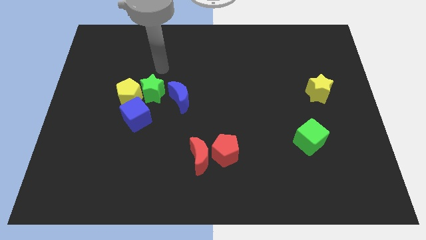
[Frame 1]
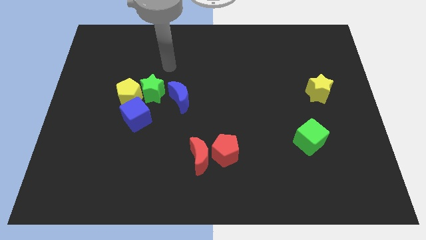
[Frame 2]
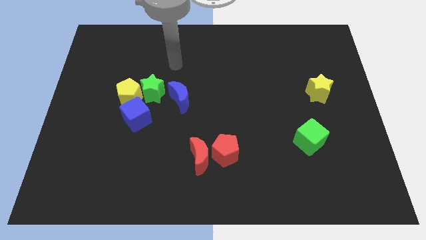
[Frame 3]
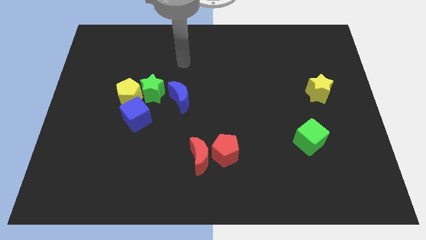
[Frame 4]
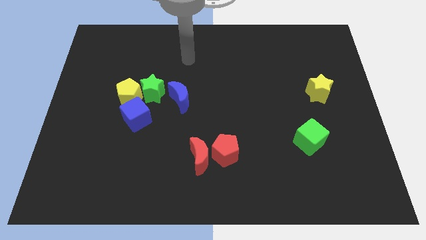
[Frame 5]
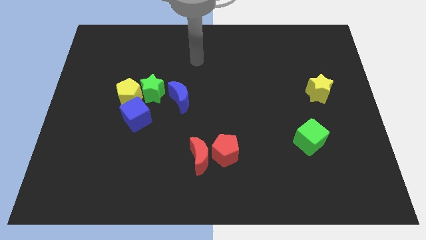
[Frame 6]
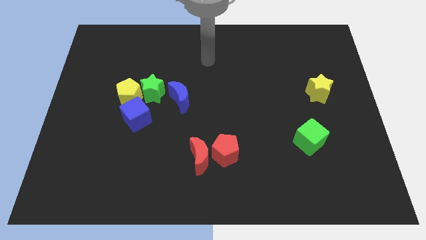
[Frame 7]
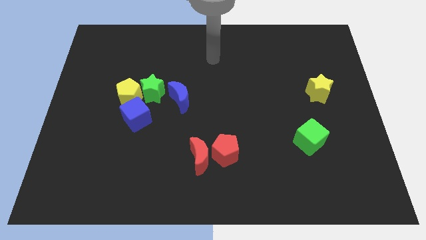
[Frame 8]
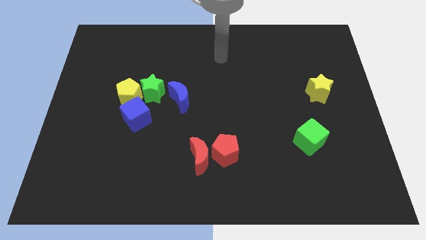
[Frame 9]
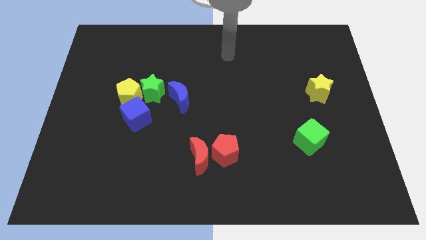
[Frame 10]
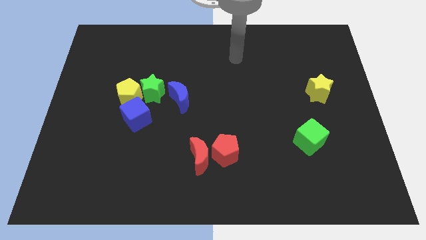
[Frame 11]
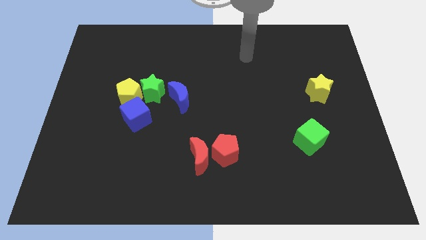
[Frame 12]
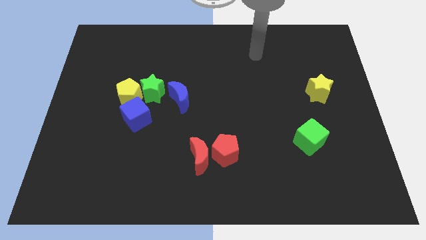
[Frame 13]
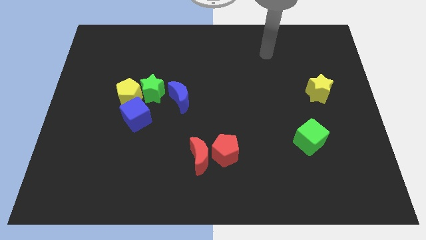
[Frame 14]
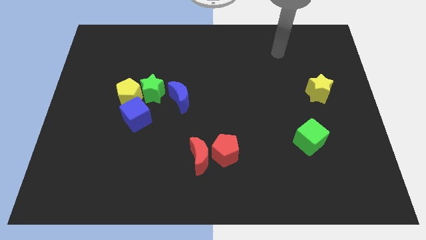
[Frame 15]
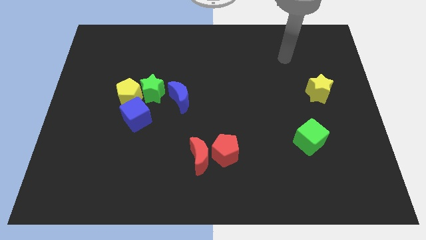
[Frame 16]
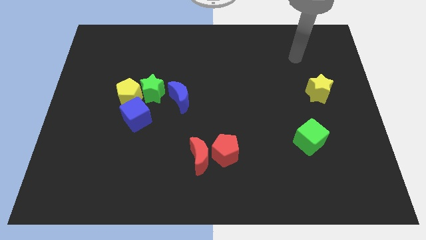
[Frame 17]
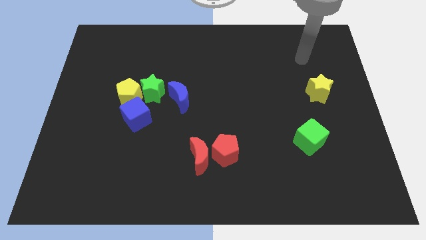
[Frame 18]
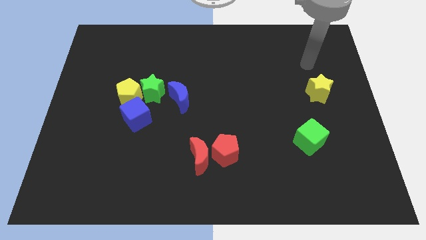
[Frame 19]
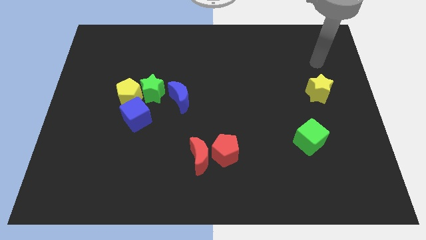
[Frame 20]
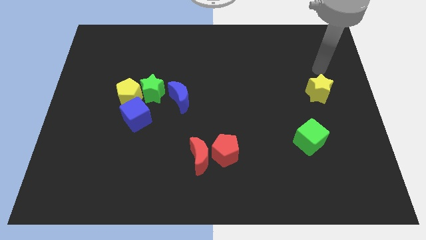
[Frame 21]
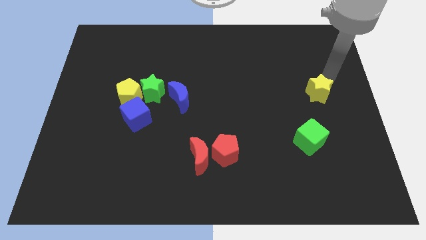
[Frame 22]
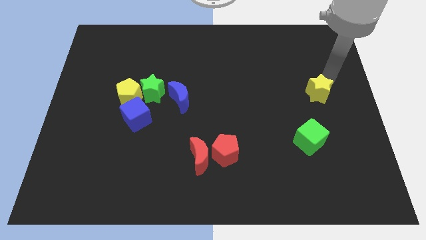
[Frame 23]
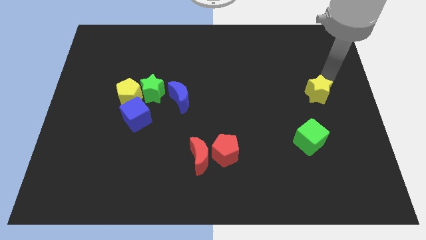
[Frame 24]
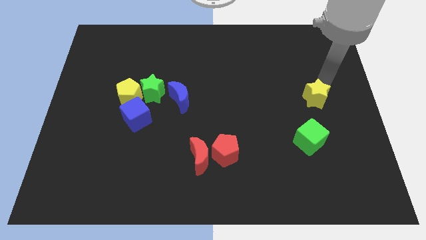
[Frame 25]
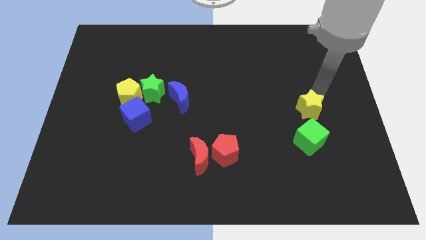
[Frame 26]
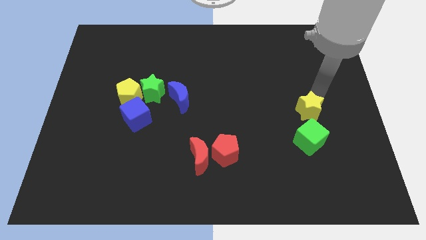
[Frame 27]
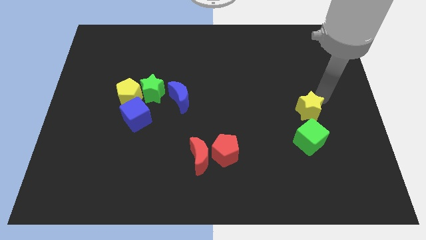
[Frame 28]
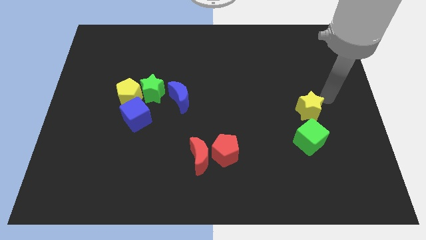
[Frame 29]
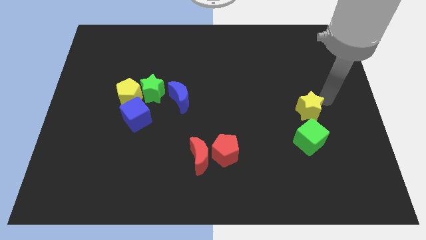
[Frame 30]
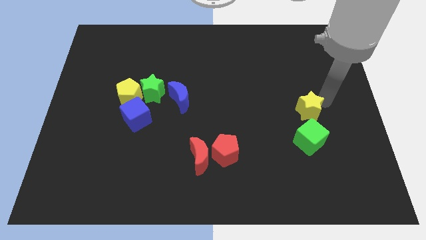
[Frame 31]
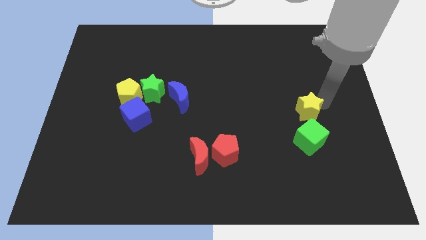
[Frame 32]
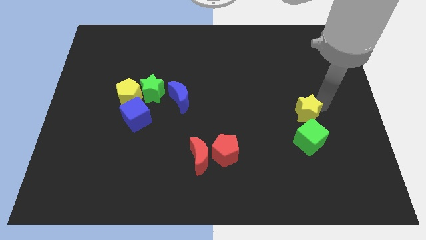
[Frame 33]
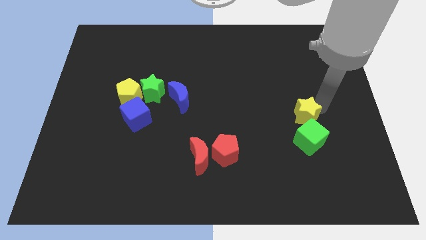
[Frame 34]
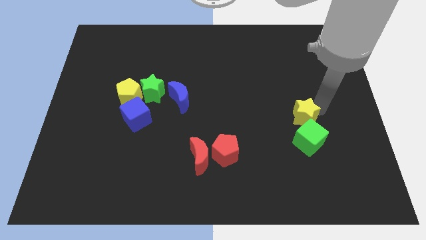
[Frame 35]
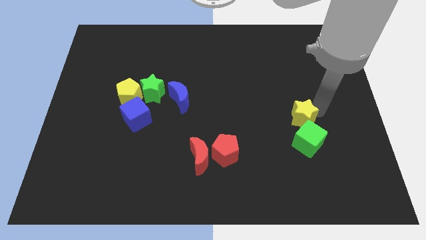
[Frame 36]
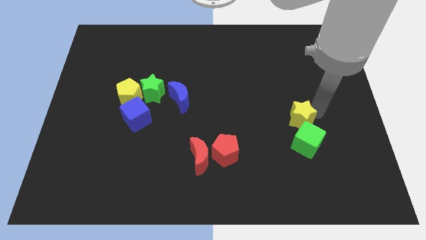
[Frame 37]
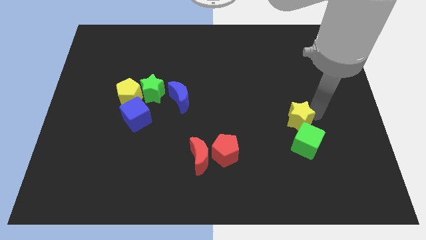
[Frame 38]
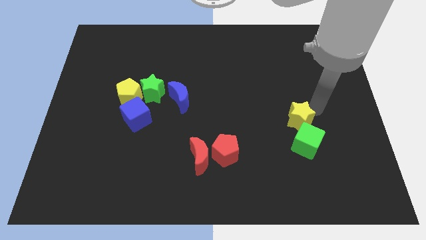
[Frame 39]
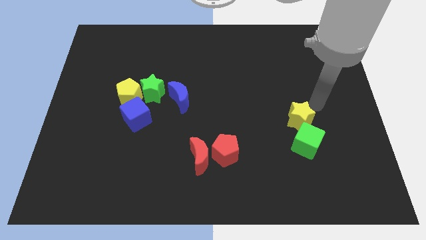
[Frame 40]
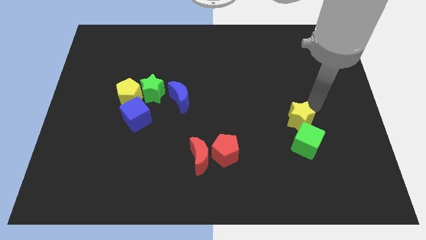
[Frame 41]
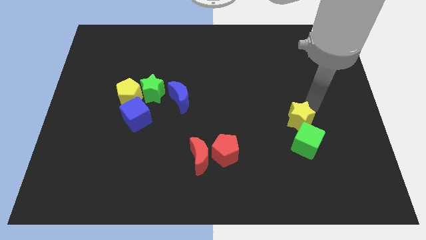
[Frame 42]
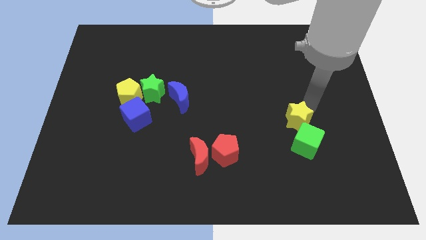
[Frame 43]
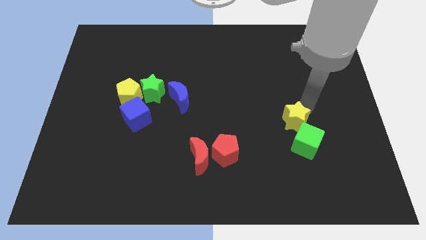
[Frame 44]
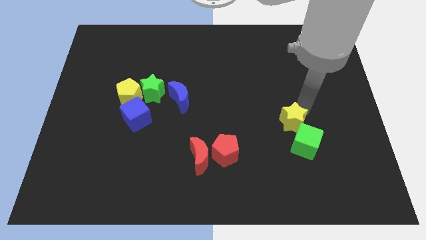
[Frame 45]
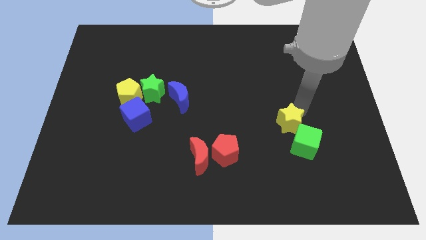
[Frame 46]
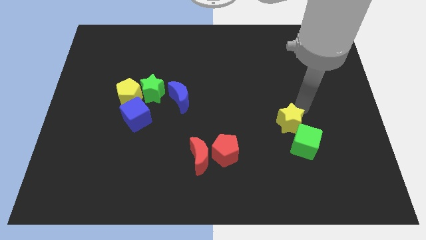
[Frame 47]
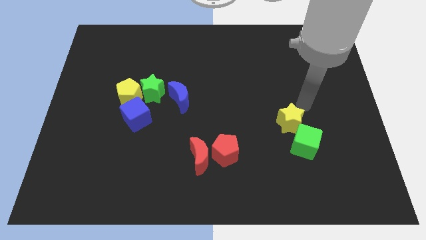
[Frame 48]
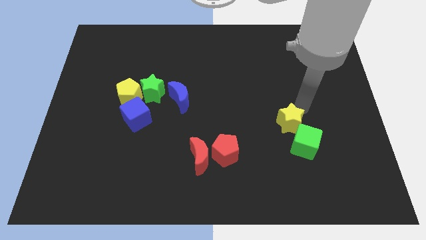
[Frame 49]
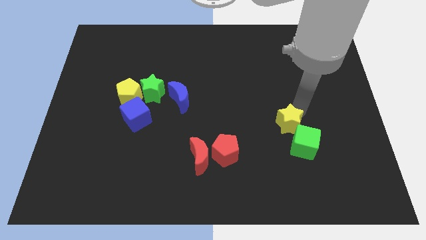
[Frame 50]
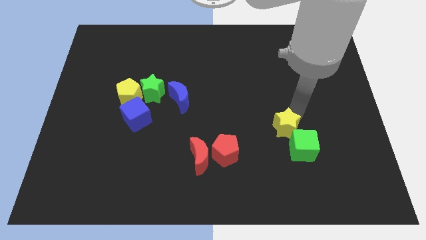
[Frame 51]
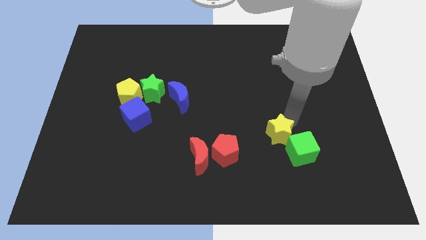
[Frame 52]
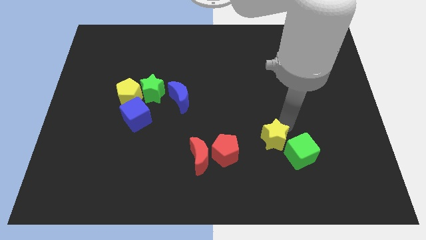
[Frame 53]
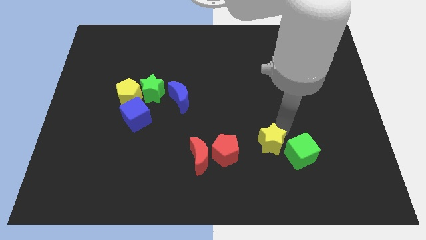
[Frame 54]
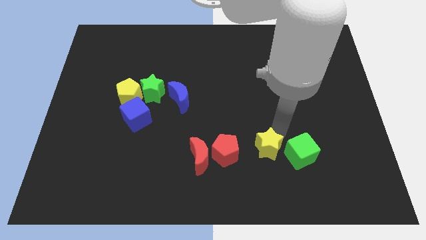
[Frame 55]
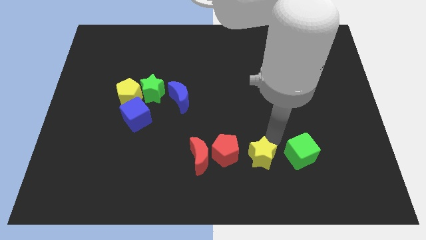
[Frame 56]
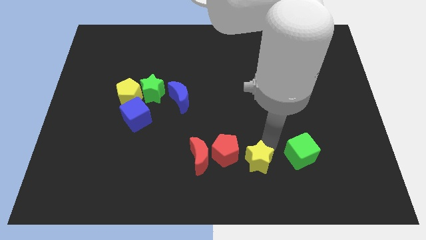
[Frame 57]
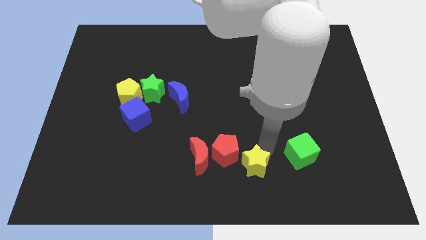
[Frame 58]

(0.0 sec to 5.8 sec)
put the yellow star to the bottom

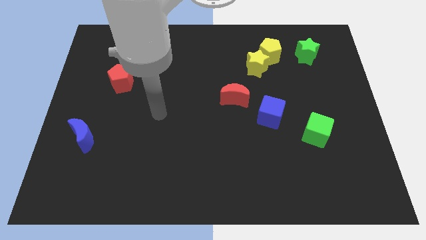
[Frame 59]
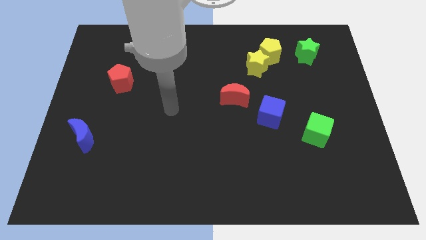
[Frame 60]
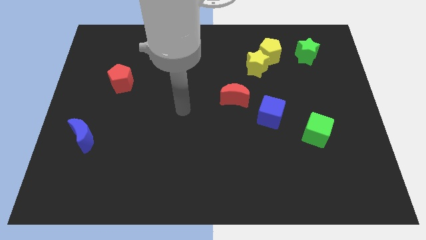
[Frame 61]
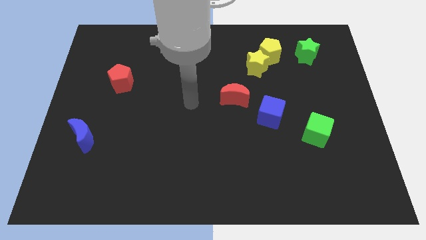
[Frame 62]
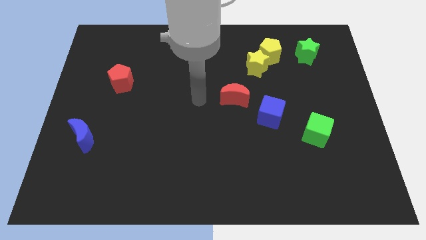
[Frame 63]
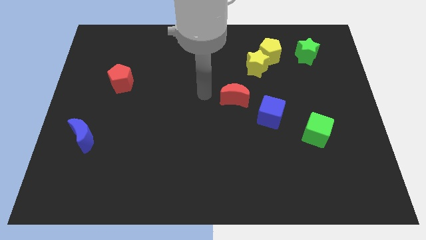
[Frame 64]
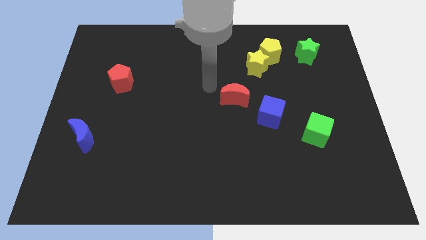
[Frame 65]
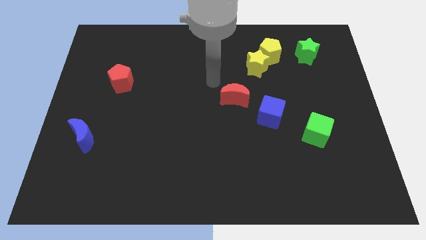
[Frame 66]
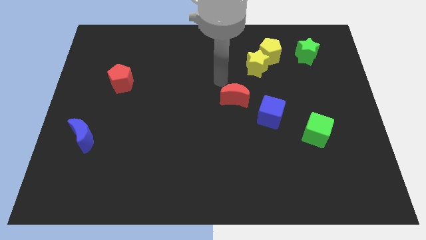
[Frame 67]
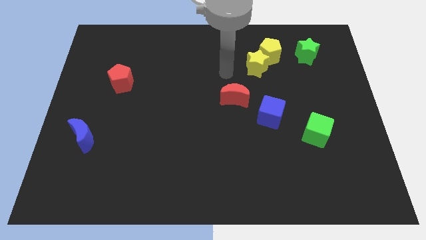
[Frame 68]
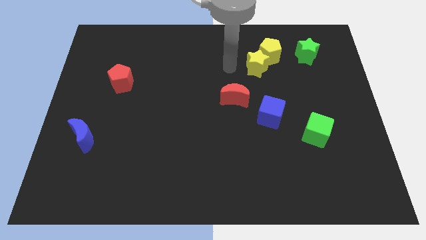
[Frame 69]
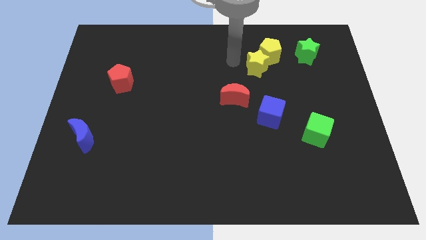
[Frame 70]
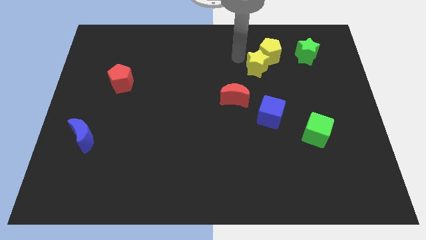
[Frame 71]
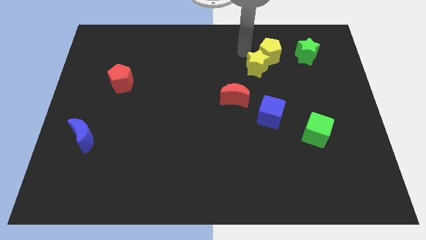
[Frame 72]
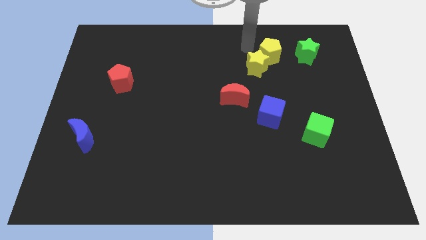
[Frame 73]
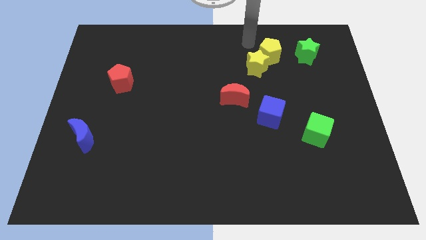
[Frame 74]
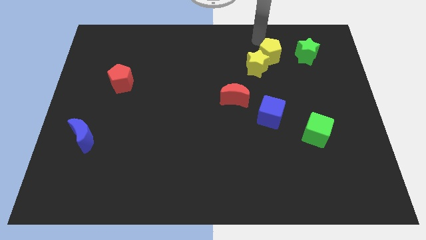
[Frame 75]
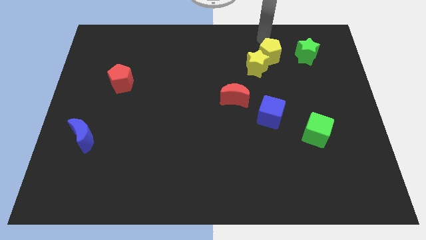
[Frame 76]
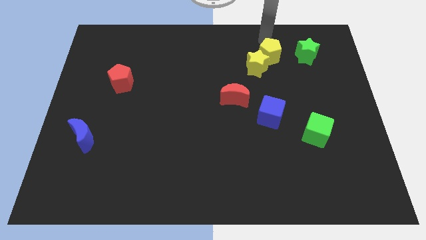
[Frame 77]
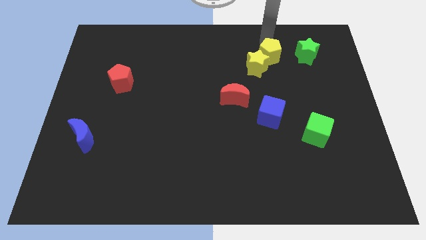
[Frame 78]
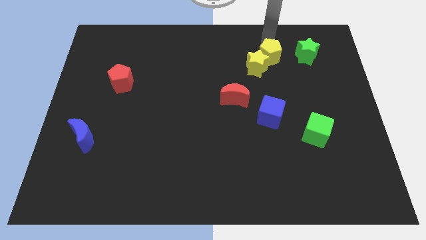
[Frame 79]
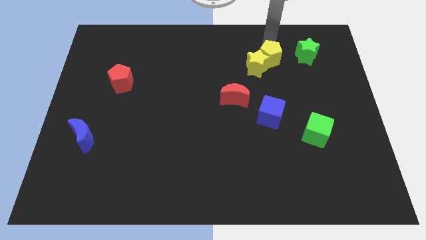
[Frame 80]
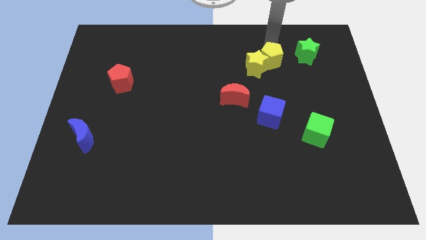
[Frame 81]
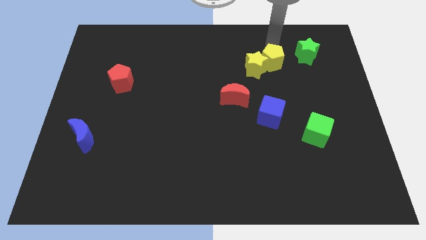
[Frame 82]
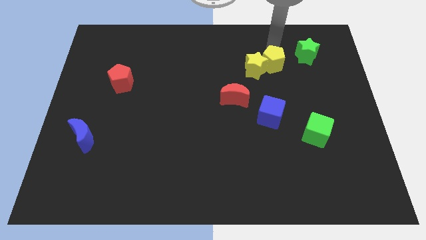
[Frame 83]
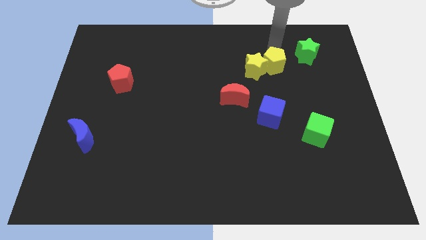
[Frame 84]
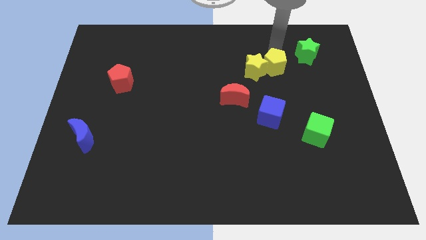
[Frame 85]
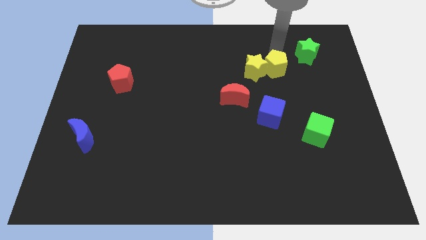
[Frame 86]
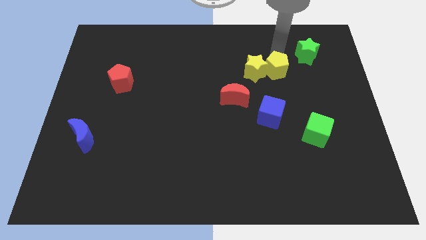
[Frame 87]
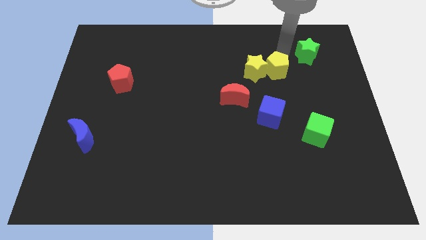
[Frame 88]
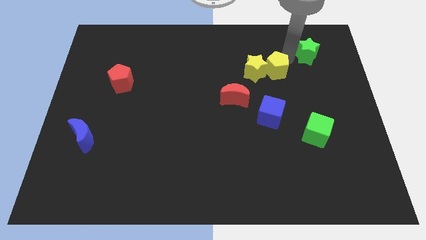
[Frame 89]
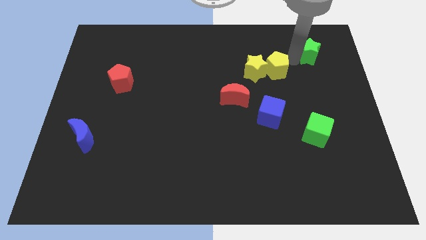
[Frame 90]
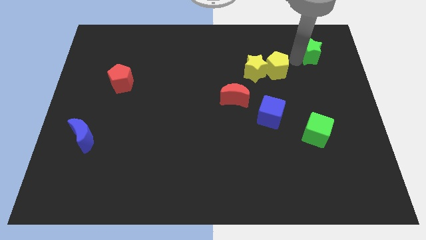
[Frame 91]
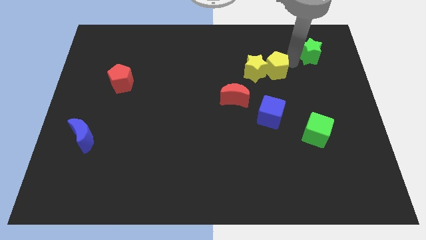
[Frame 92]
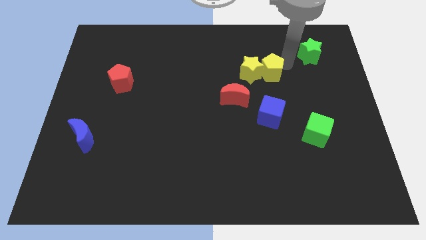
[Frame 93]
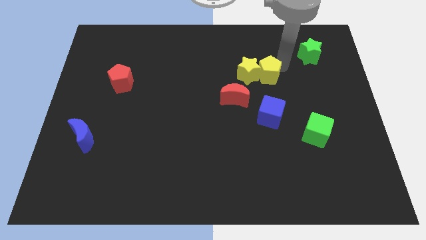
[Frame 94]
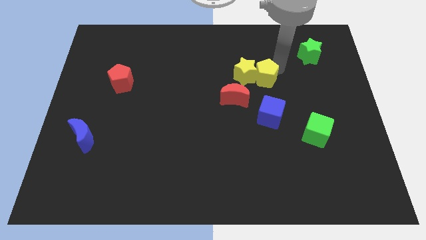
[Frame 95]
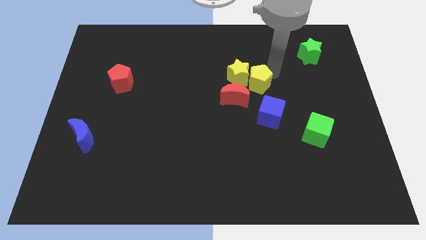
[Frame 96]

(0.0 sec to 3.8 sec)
slide the yellow pentagon to the center
